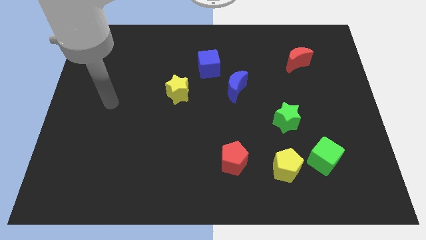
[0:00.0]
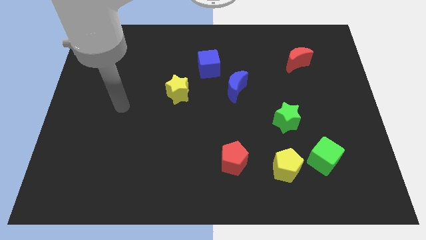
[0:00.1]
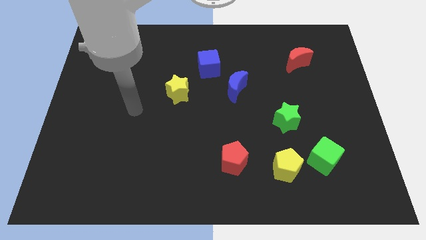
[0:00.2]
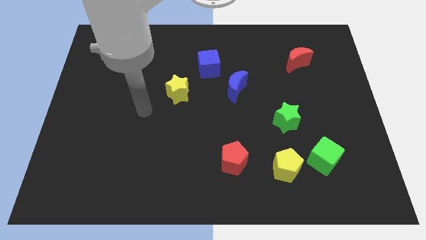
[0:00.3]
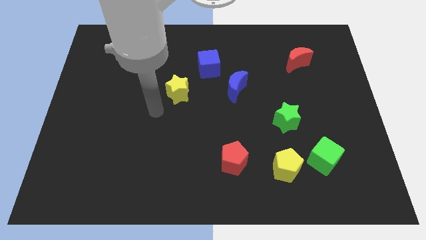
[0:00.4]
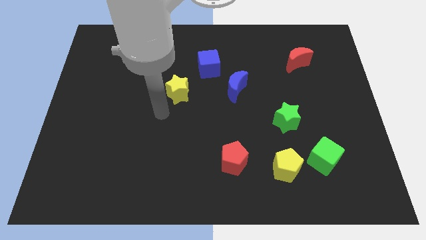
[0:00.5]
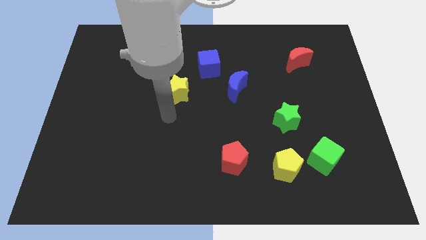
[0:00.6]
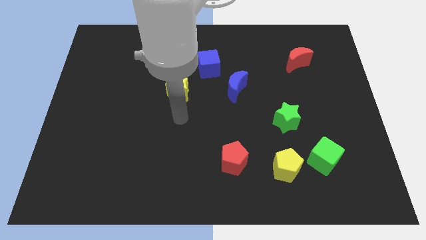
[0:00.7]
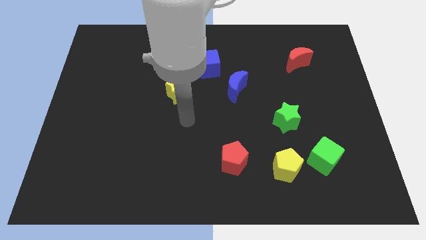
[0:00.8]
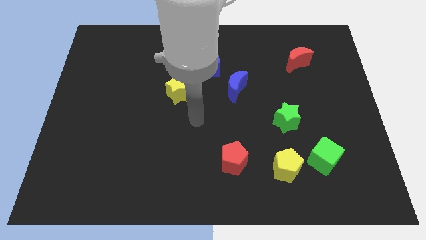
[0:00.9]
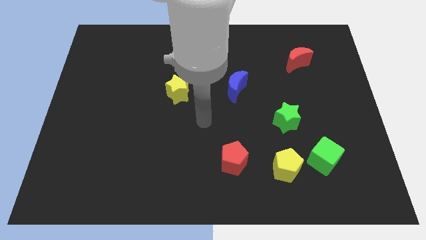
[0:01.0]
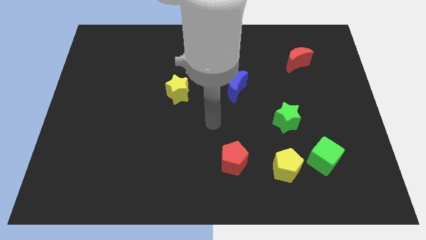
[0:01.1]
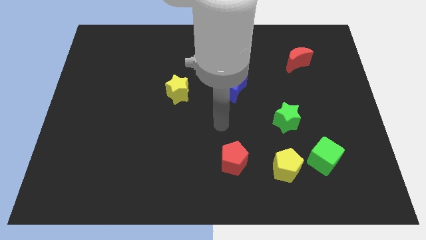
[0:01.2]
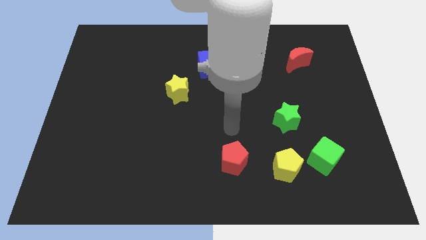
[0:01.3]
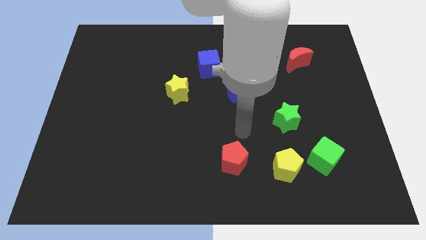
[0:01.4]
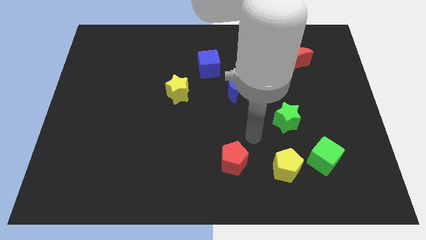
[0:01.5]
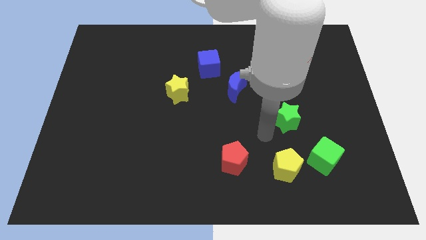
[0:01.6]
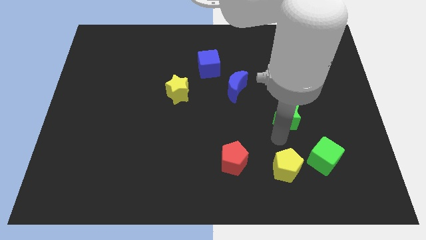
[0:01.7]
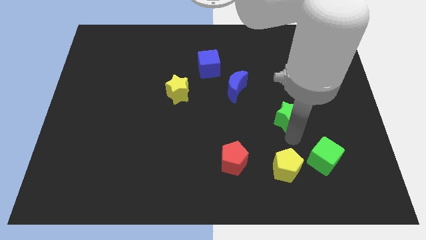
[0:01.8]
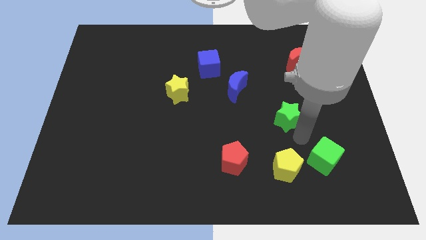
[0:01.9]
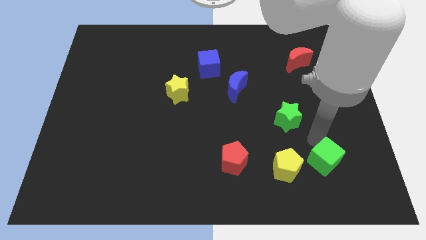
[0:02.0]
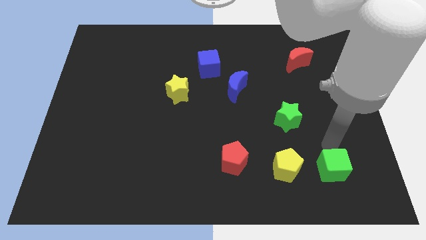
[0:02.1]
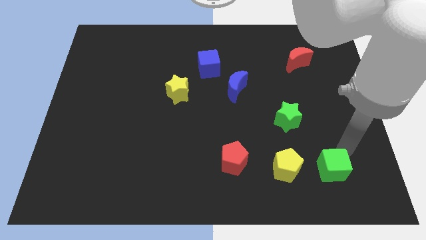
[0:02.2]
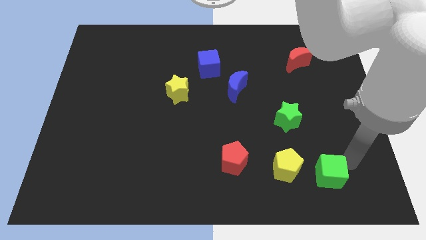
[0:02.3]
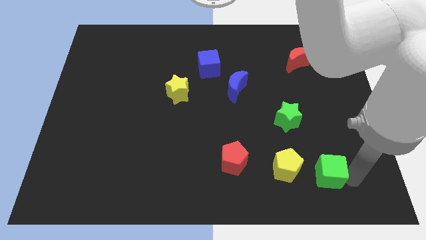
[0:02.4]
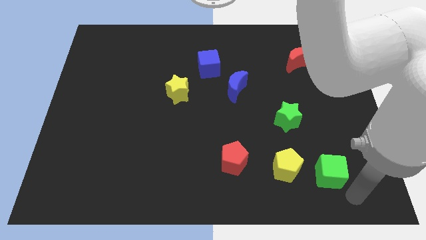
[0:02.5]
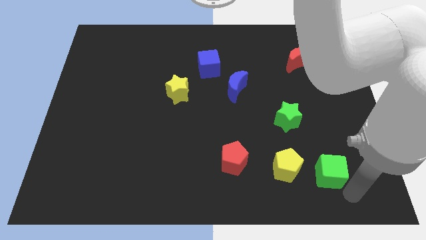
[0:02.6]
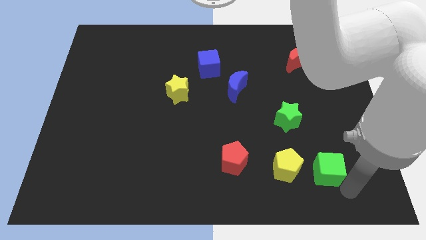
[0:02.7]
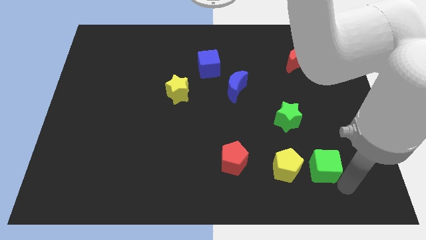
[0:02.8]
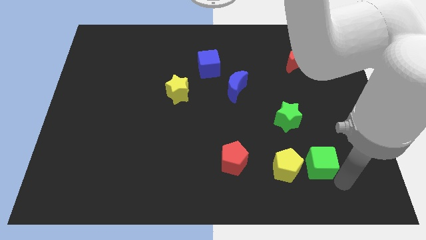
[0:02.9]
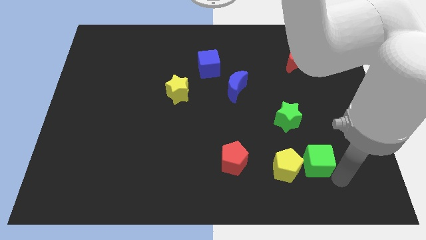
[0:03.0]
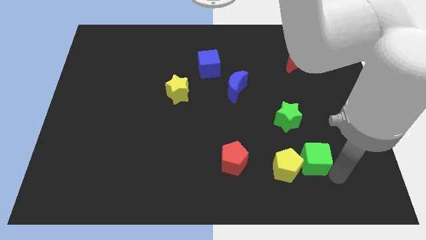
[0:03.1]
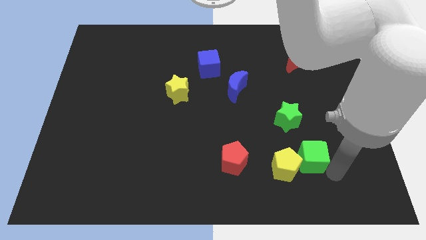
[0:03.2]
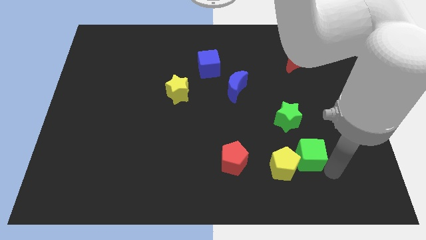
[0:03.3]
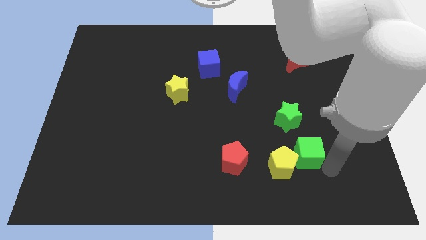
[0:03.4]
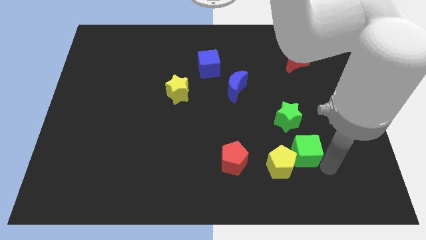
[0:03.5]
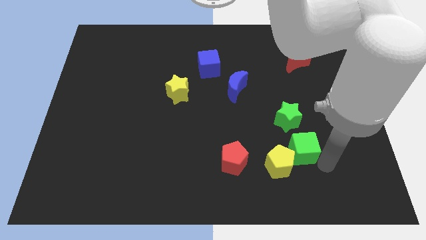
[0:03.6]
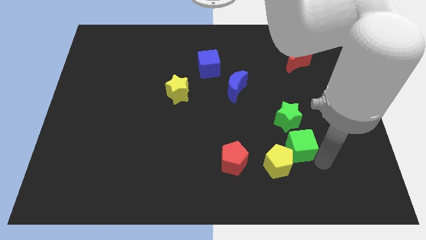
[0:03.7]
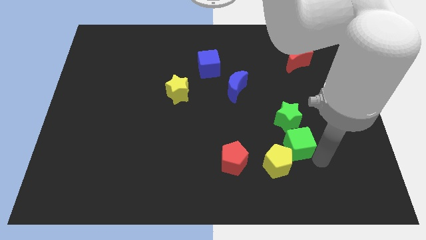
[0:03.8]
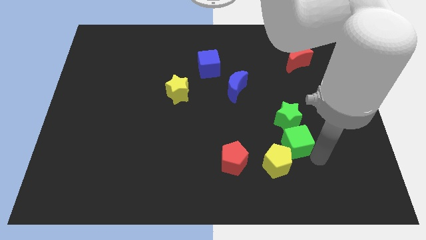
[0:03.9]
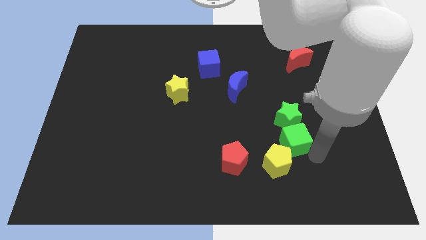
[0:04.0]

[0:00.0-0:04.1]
slide the green cube somewhat diagonally upwards and to the left

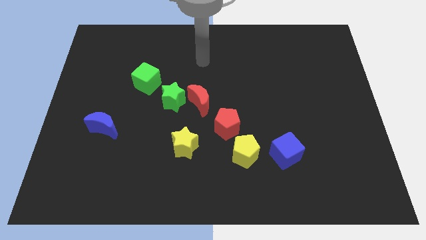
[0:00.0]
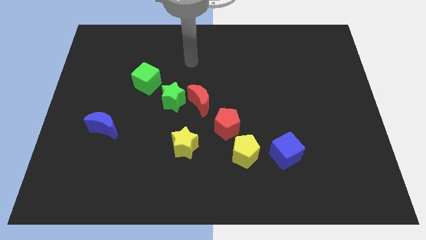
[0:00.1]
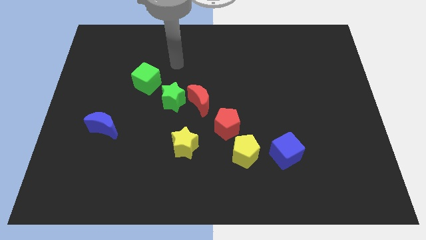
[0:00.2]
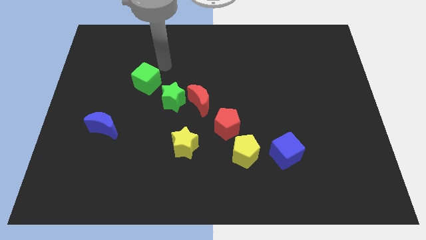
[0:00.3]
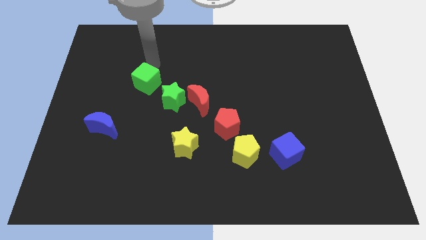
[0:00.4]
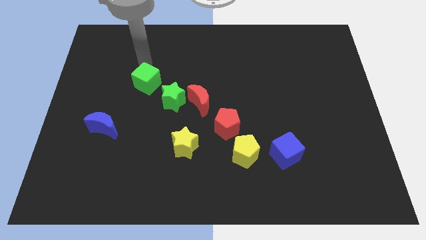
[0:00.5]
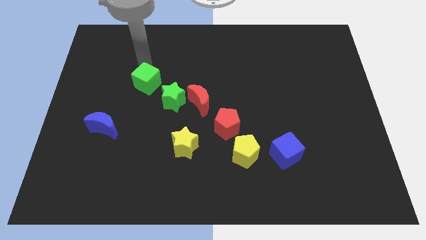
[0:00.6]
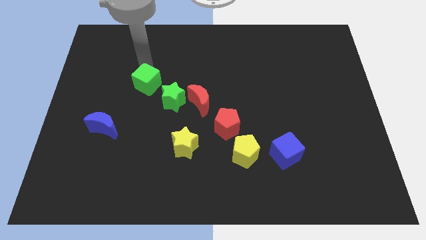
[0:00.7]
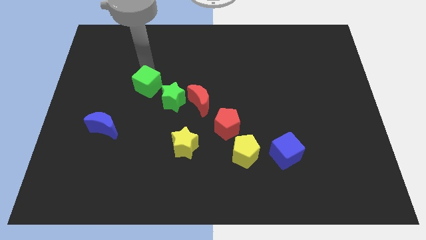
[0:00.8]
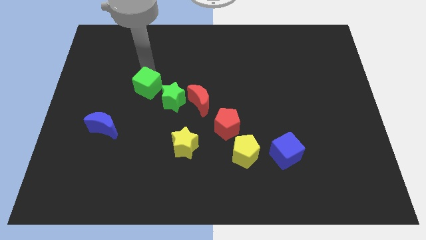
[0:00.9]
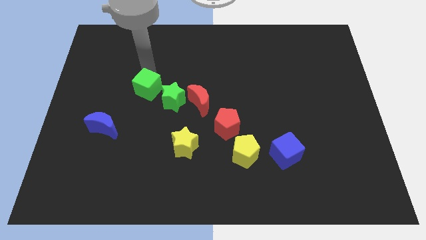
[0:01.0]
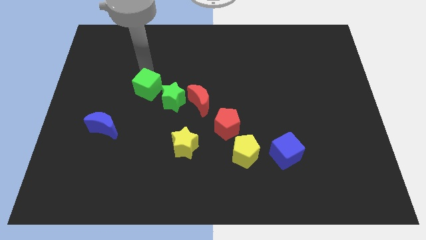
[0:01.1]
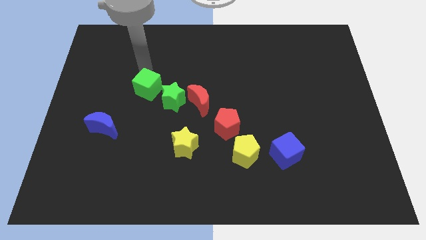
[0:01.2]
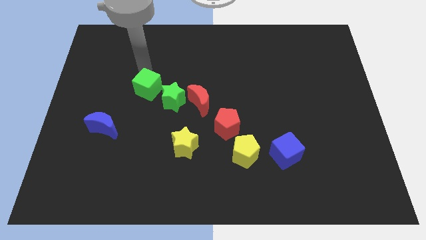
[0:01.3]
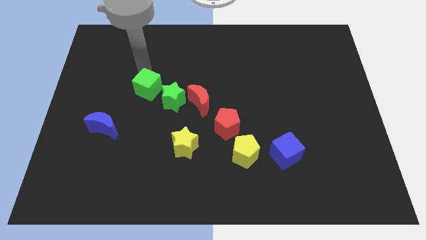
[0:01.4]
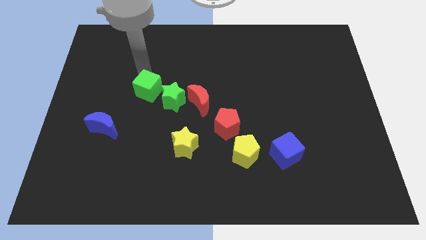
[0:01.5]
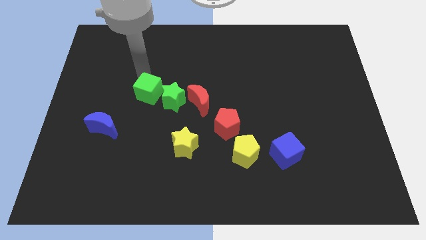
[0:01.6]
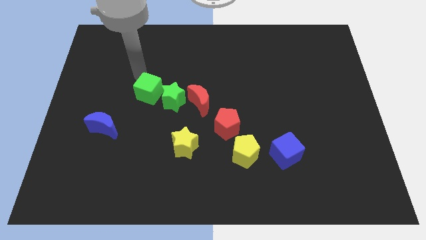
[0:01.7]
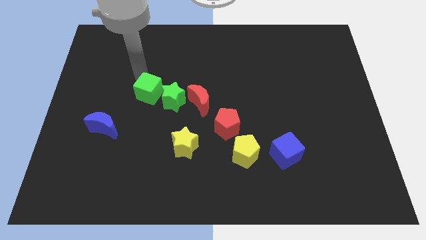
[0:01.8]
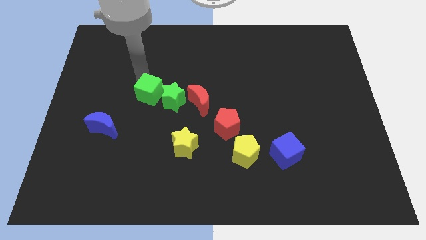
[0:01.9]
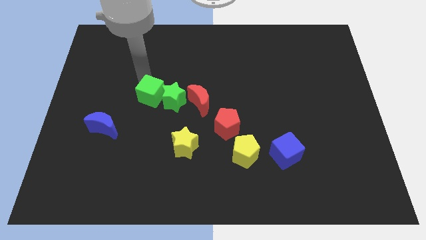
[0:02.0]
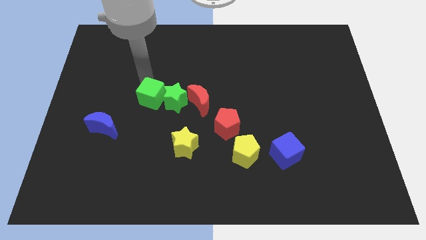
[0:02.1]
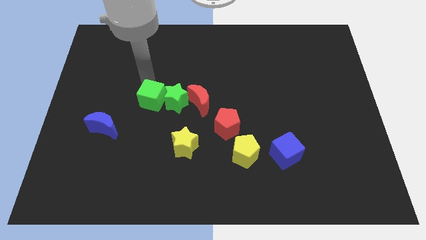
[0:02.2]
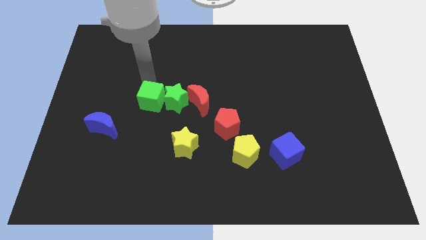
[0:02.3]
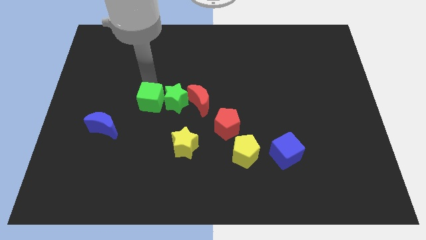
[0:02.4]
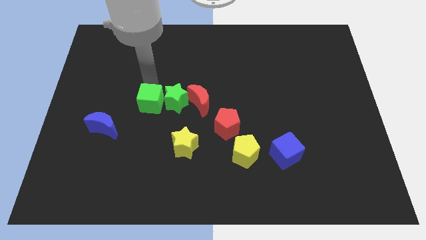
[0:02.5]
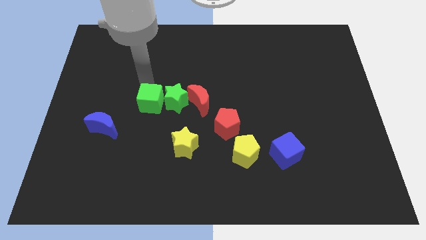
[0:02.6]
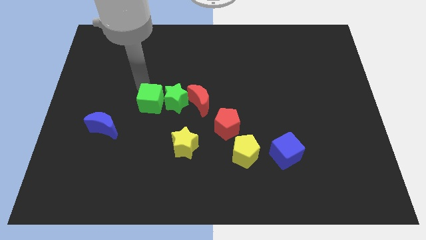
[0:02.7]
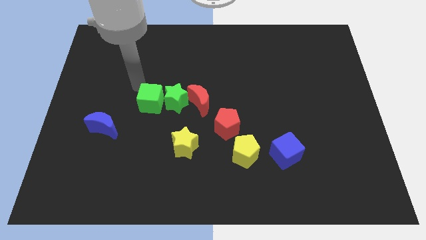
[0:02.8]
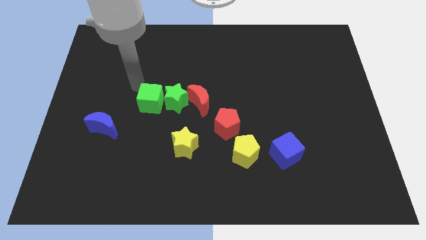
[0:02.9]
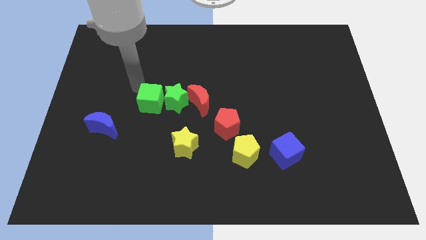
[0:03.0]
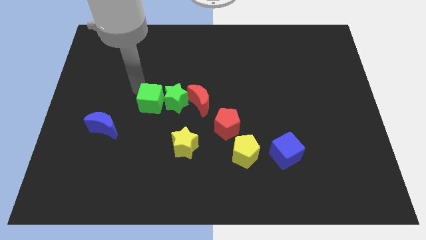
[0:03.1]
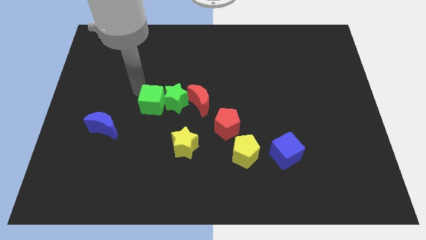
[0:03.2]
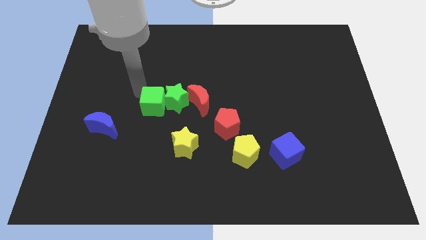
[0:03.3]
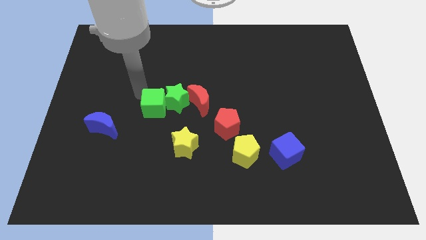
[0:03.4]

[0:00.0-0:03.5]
move the green cube downwards and then right a bit
